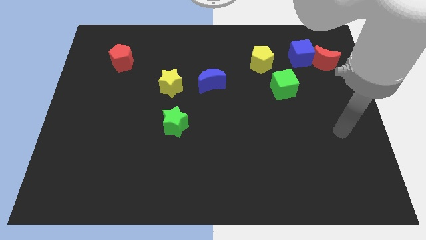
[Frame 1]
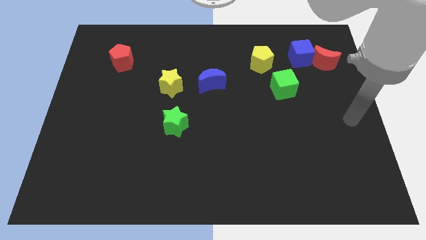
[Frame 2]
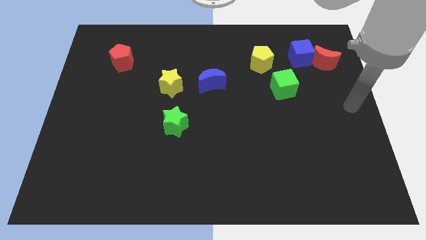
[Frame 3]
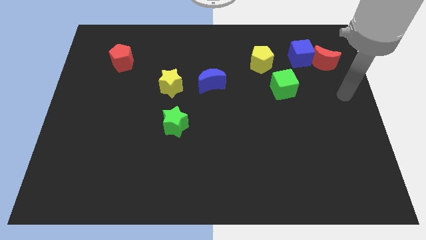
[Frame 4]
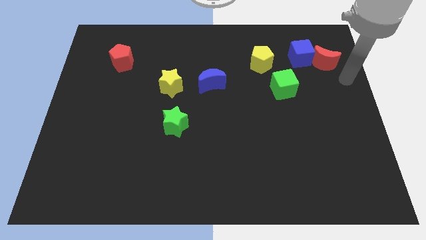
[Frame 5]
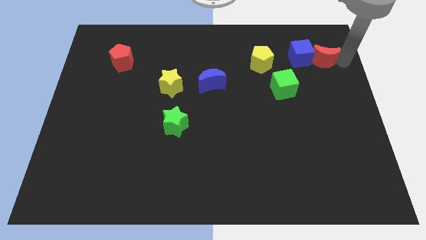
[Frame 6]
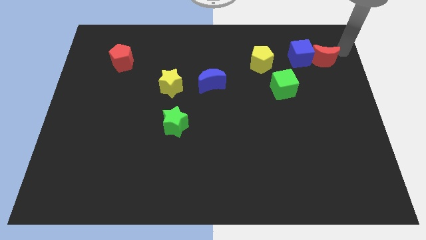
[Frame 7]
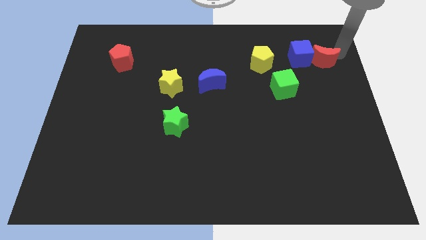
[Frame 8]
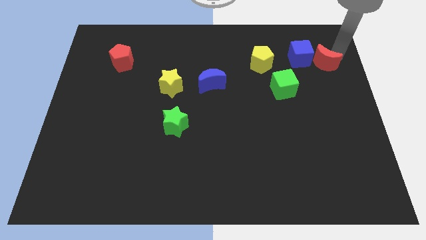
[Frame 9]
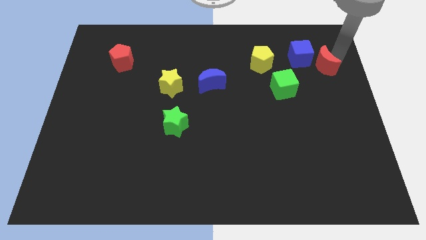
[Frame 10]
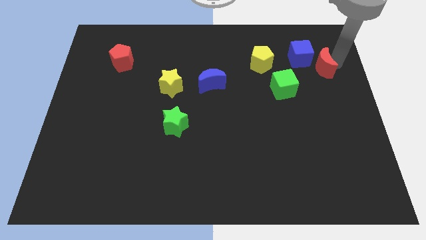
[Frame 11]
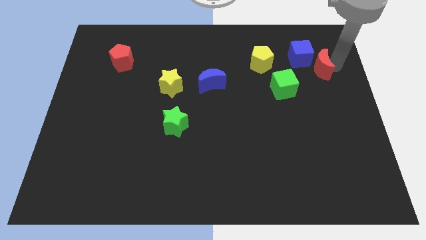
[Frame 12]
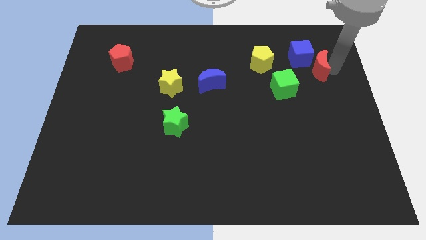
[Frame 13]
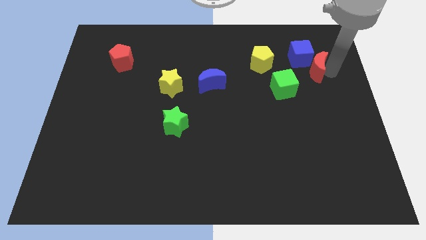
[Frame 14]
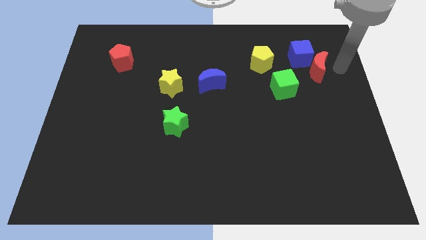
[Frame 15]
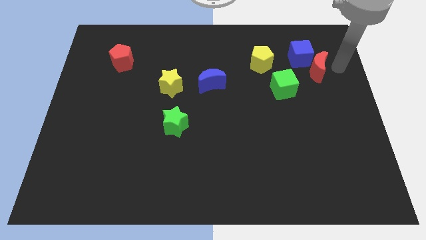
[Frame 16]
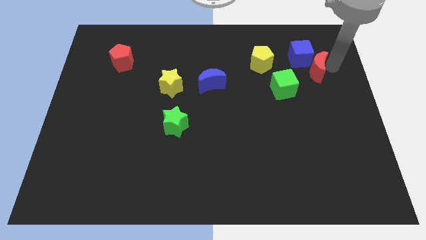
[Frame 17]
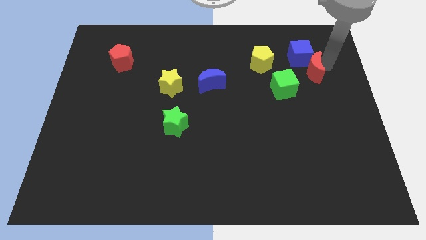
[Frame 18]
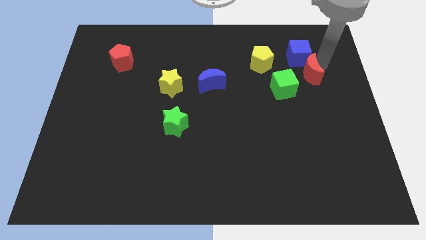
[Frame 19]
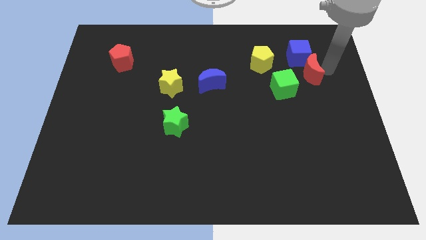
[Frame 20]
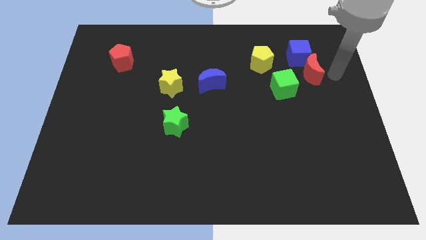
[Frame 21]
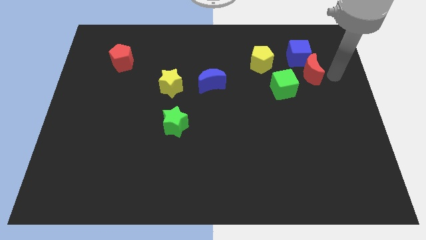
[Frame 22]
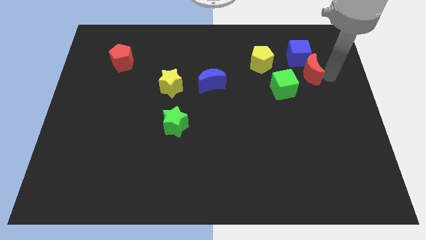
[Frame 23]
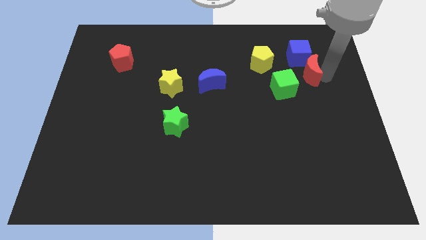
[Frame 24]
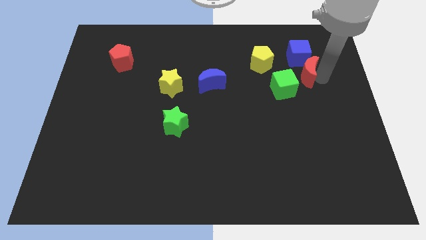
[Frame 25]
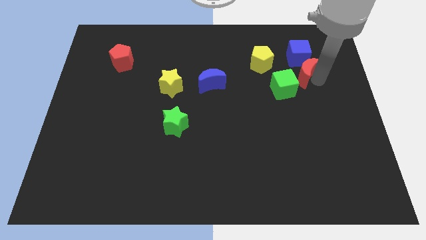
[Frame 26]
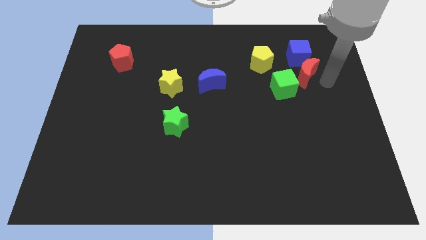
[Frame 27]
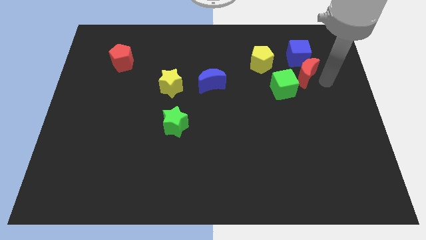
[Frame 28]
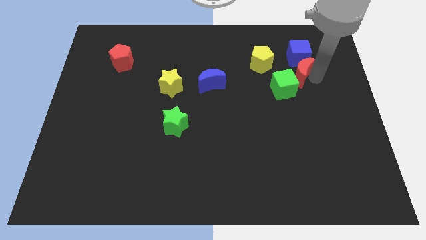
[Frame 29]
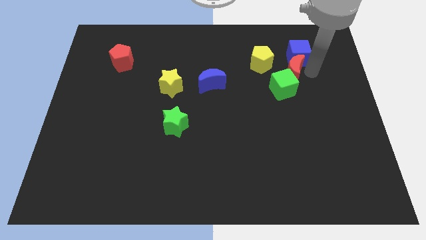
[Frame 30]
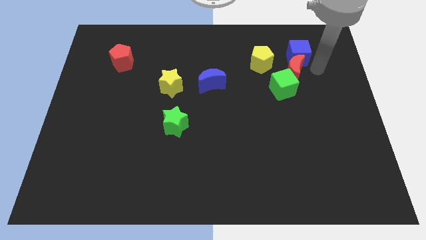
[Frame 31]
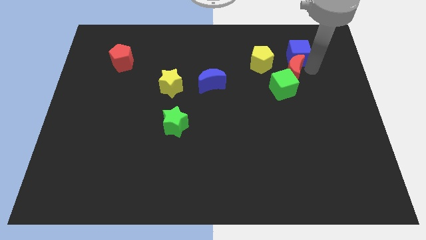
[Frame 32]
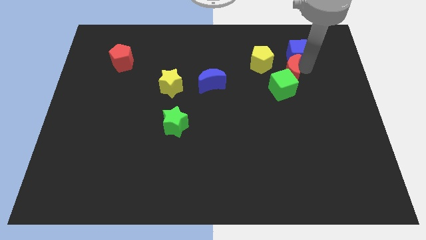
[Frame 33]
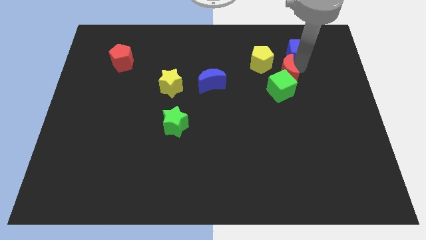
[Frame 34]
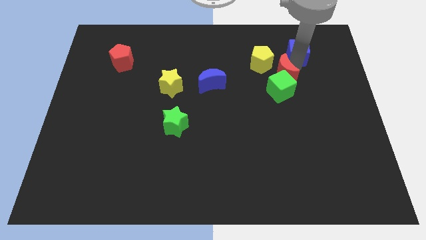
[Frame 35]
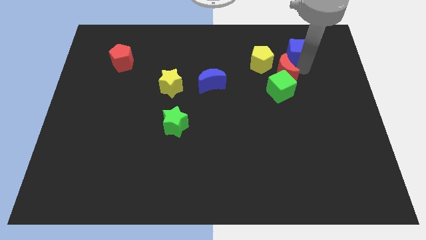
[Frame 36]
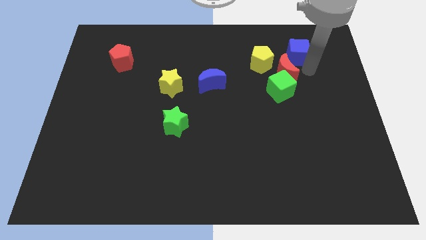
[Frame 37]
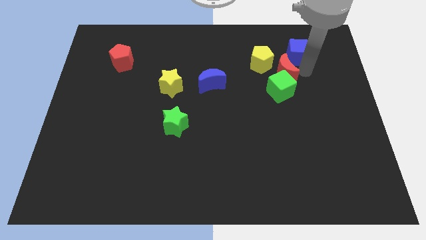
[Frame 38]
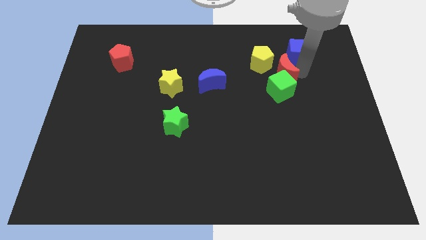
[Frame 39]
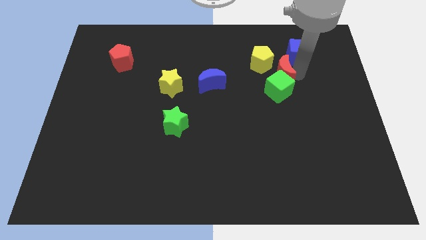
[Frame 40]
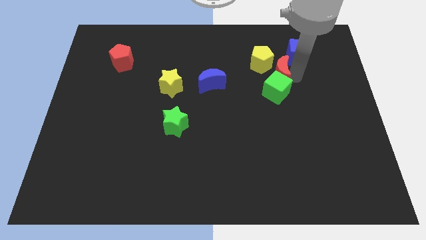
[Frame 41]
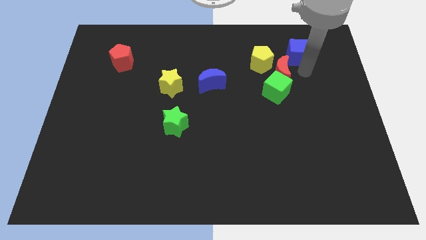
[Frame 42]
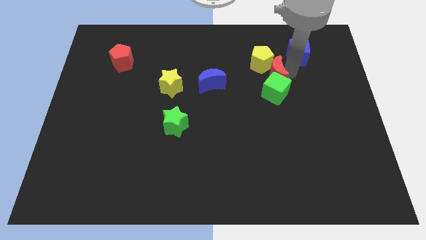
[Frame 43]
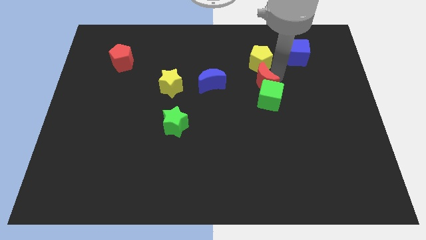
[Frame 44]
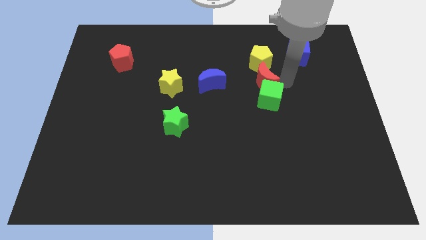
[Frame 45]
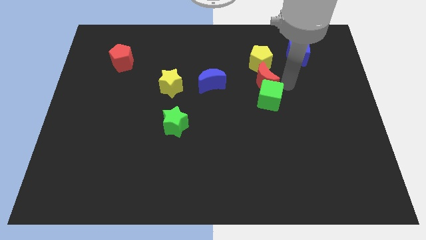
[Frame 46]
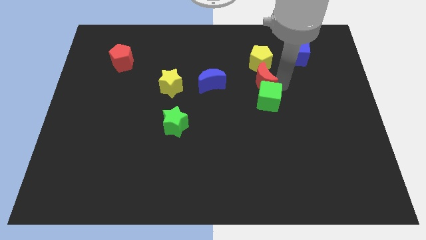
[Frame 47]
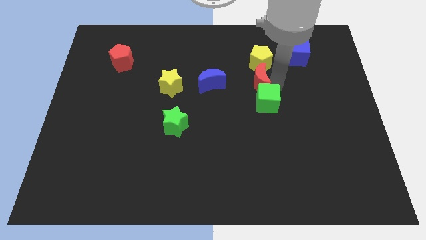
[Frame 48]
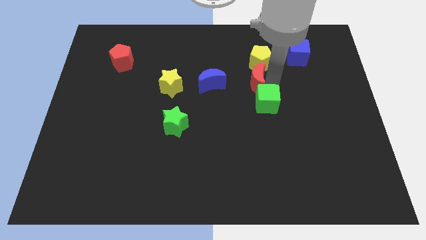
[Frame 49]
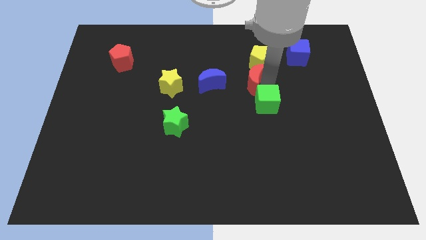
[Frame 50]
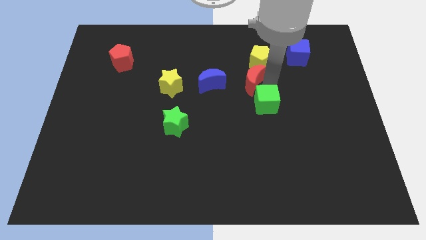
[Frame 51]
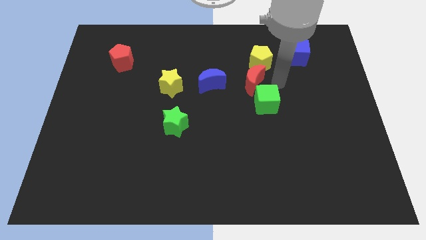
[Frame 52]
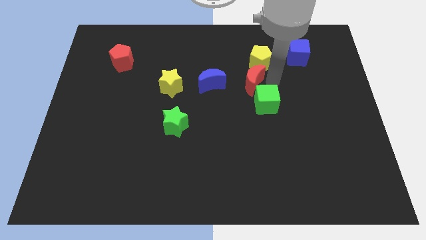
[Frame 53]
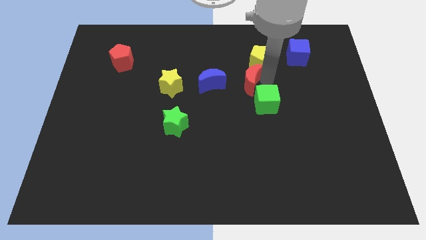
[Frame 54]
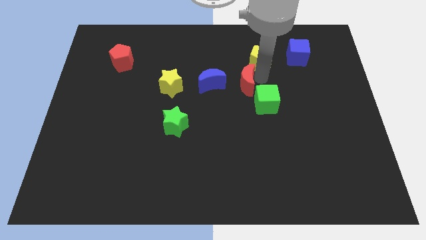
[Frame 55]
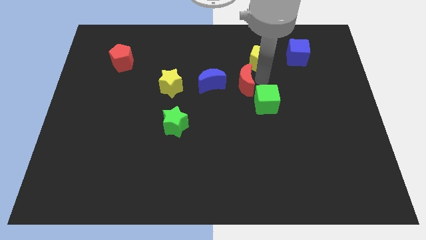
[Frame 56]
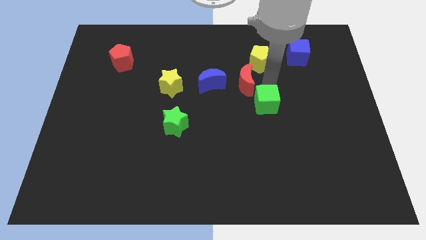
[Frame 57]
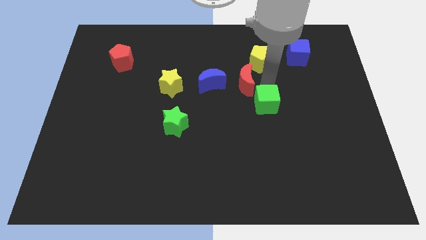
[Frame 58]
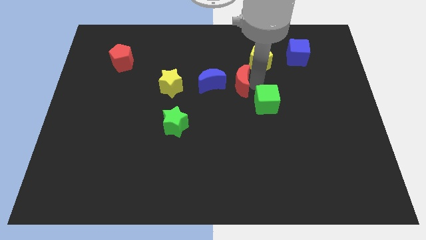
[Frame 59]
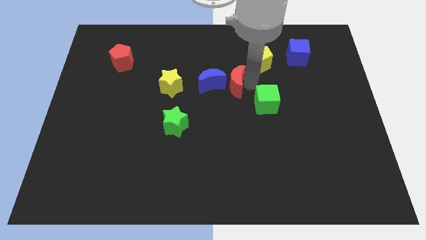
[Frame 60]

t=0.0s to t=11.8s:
move the red moon close to the blue moon

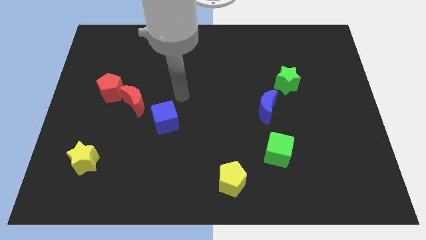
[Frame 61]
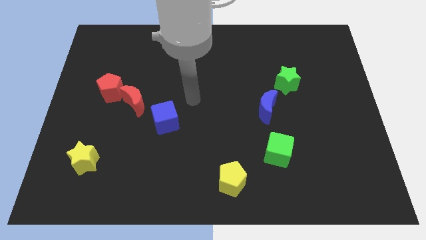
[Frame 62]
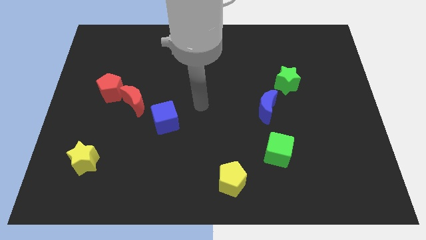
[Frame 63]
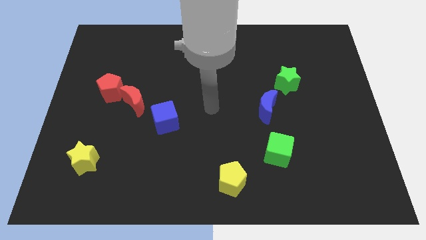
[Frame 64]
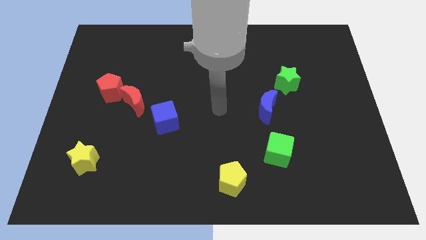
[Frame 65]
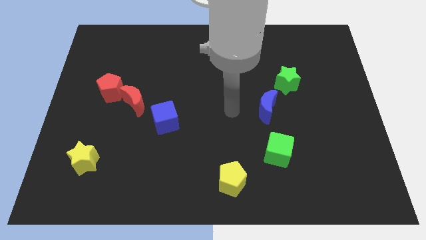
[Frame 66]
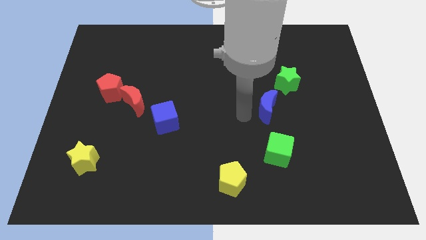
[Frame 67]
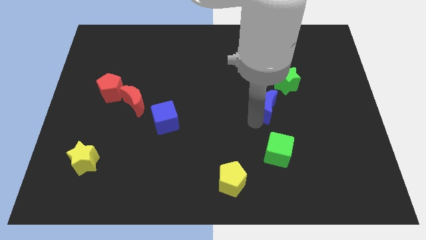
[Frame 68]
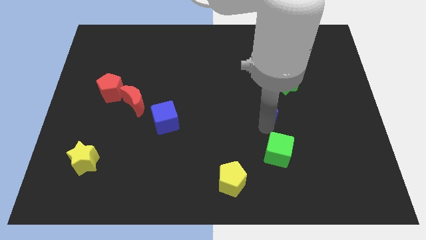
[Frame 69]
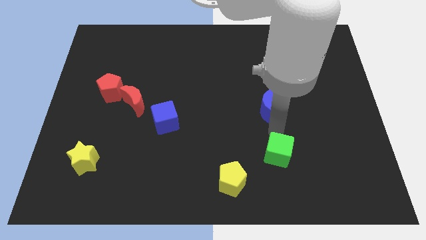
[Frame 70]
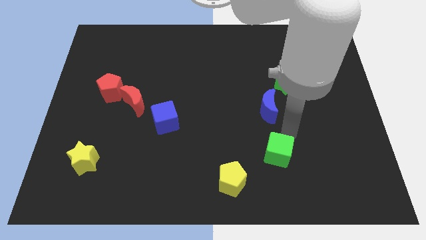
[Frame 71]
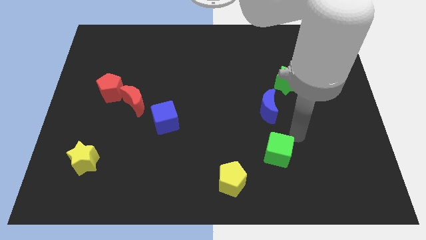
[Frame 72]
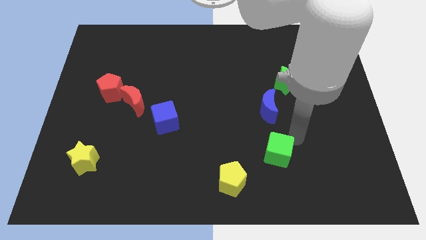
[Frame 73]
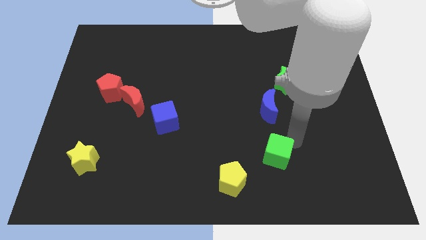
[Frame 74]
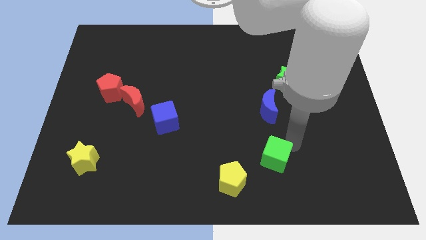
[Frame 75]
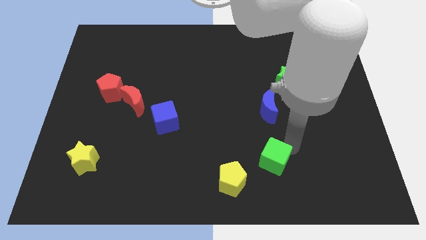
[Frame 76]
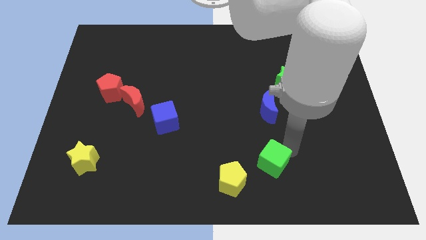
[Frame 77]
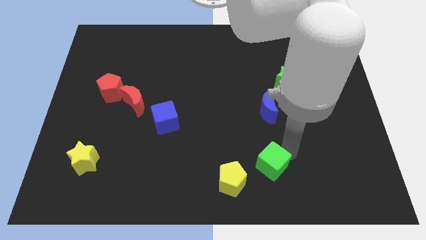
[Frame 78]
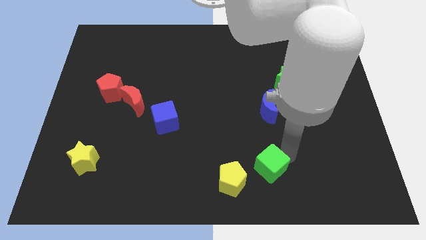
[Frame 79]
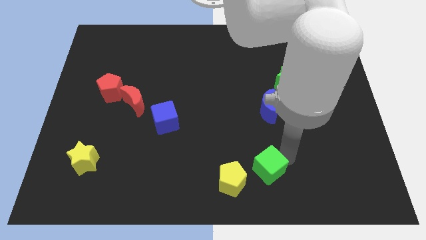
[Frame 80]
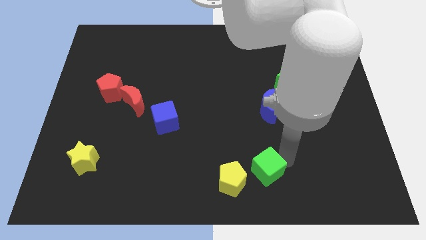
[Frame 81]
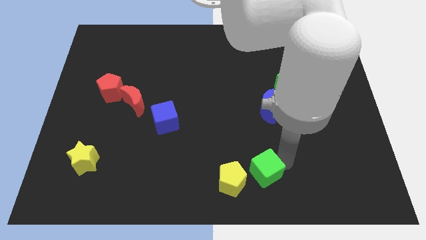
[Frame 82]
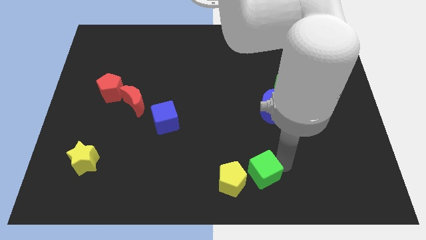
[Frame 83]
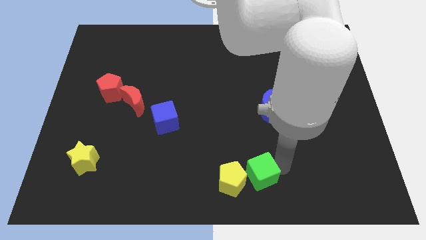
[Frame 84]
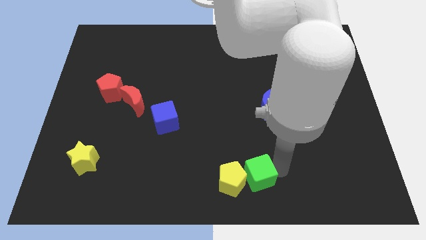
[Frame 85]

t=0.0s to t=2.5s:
slide the green cube next to the yellow pentagon
